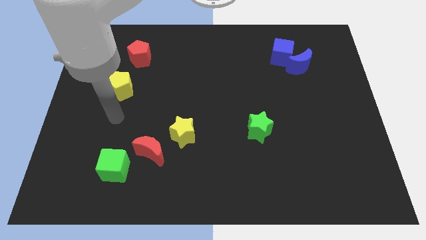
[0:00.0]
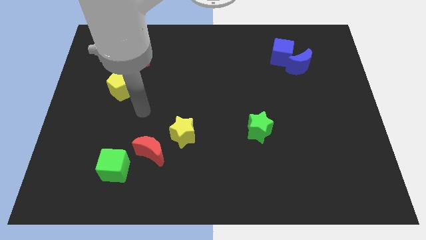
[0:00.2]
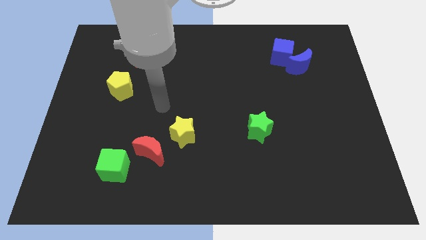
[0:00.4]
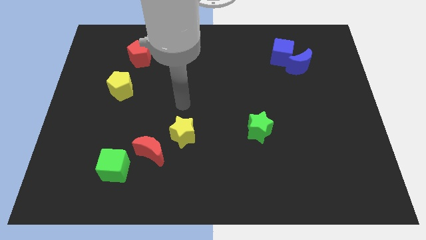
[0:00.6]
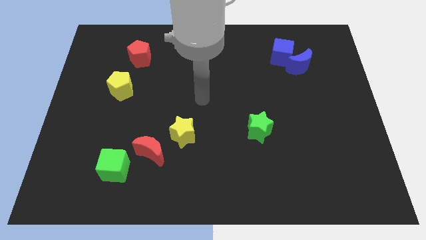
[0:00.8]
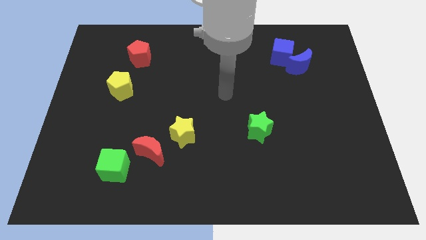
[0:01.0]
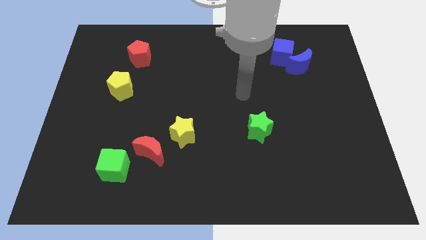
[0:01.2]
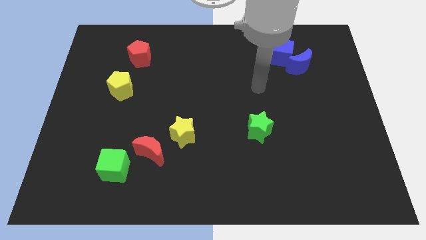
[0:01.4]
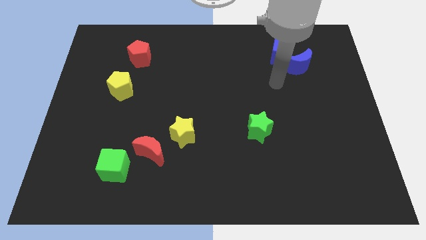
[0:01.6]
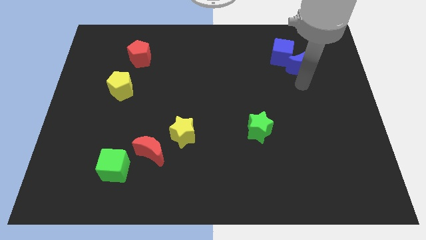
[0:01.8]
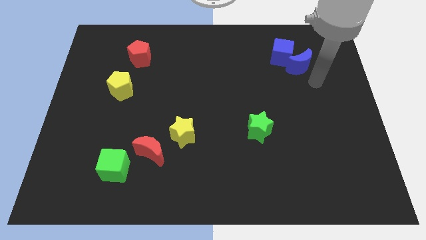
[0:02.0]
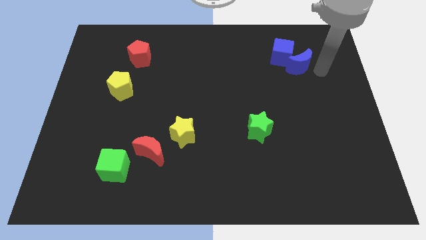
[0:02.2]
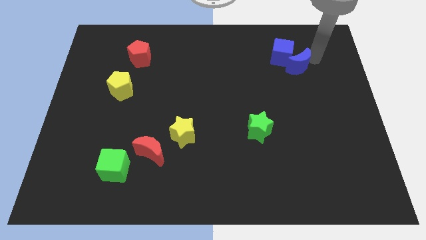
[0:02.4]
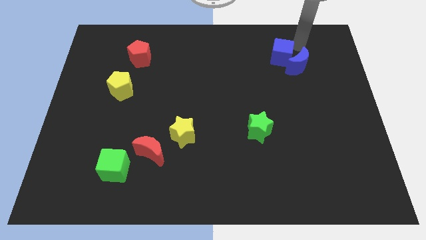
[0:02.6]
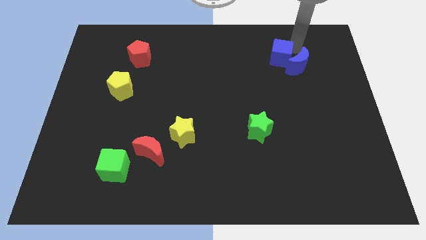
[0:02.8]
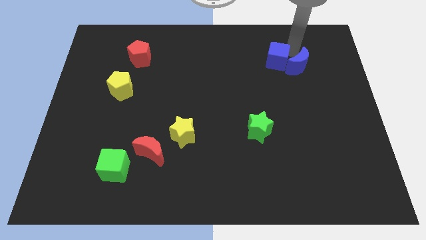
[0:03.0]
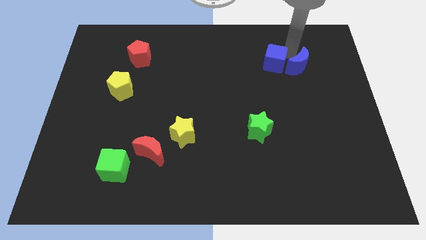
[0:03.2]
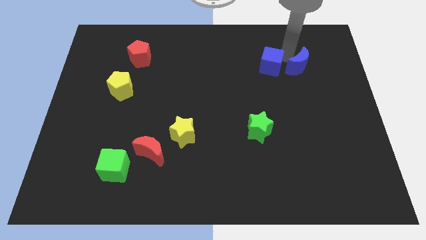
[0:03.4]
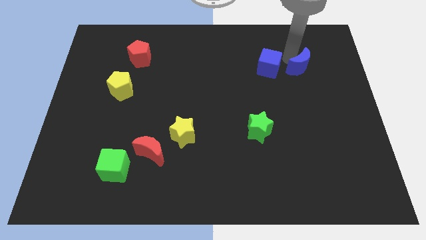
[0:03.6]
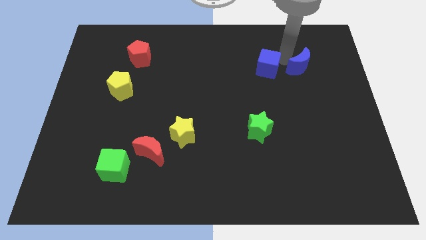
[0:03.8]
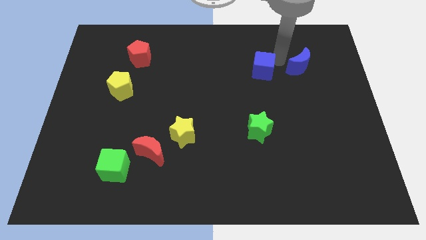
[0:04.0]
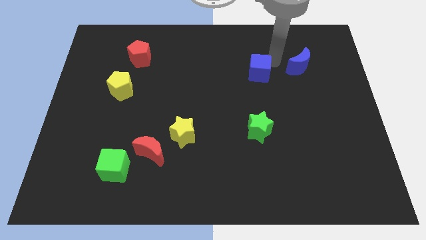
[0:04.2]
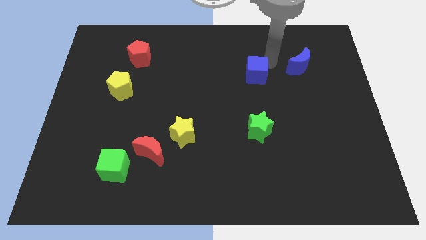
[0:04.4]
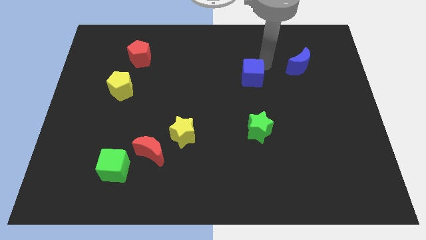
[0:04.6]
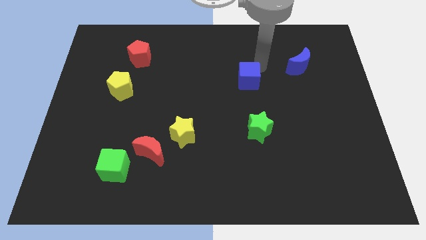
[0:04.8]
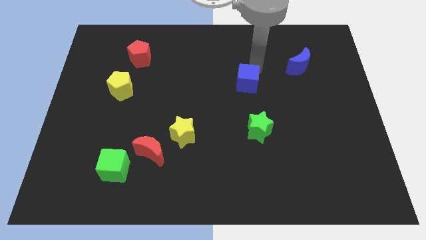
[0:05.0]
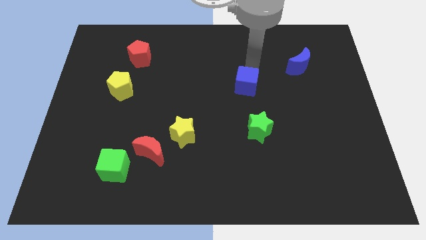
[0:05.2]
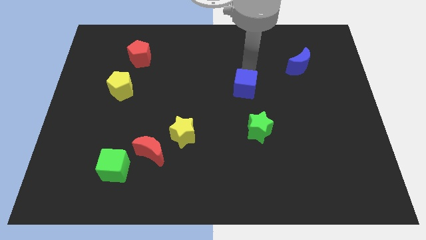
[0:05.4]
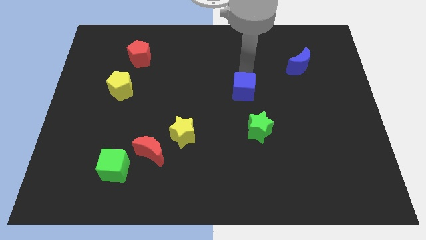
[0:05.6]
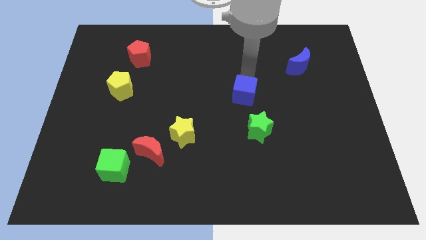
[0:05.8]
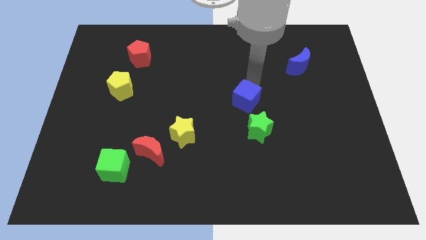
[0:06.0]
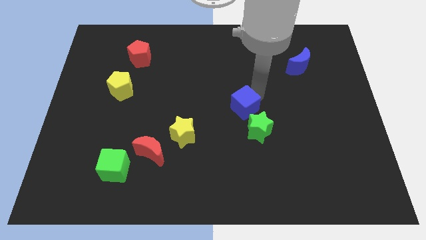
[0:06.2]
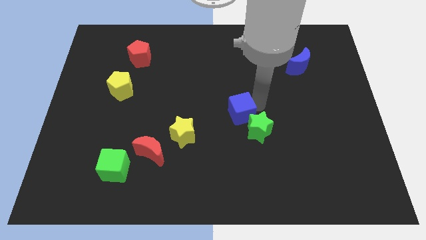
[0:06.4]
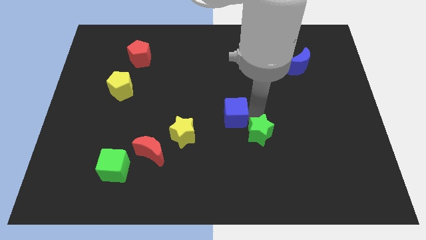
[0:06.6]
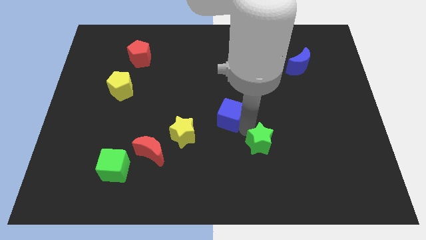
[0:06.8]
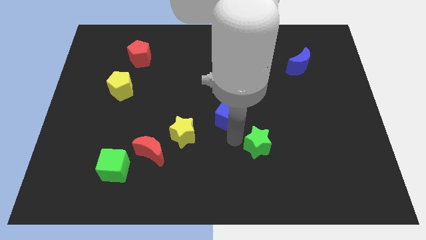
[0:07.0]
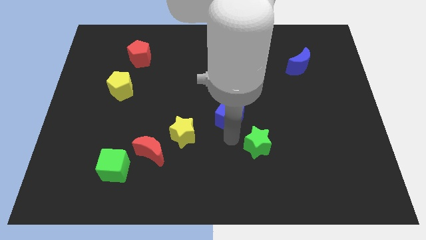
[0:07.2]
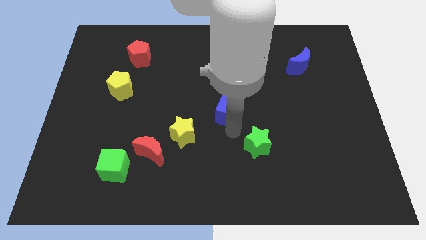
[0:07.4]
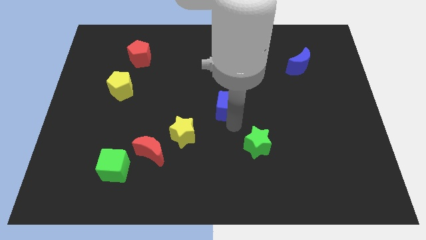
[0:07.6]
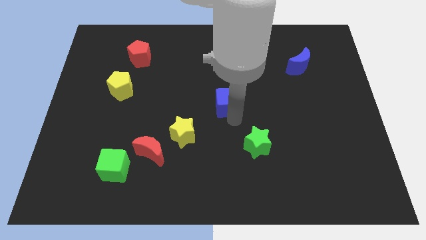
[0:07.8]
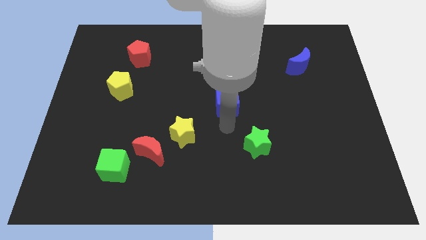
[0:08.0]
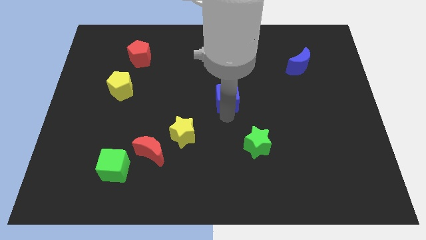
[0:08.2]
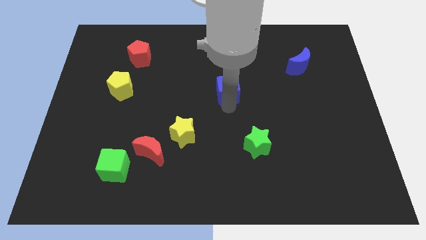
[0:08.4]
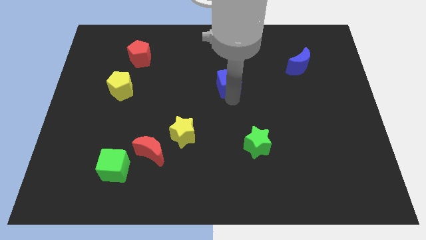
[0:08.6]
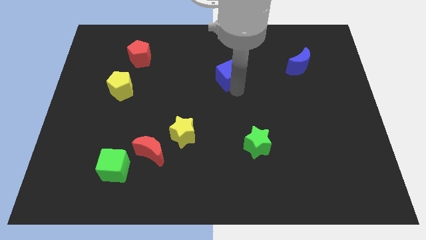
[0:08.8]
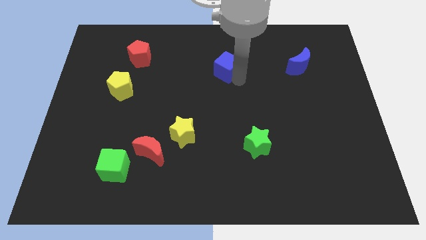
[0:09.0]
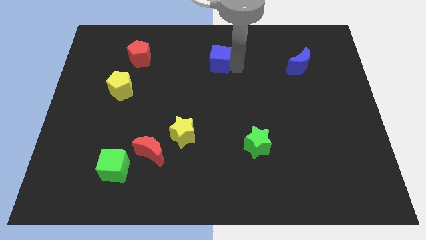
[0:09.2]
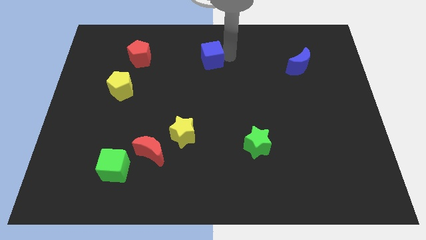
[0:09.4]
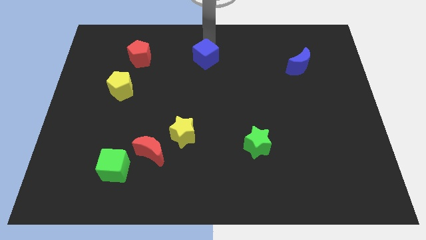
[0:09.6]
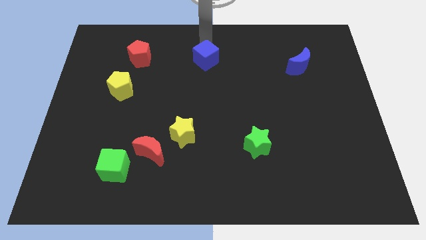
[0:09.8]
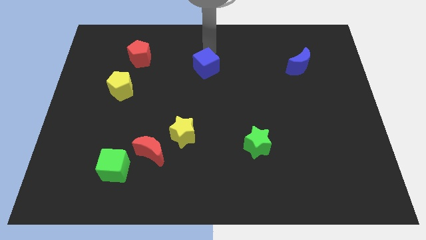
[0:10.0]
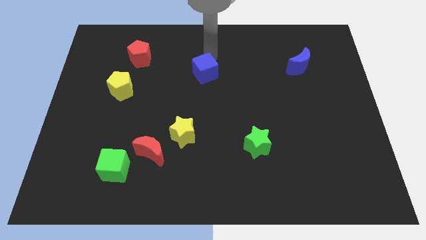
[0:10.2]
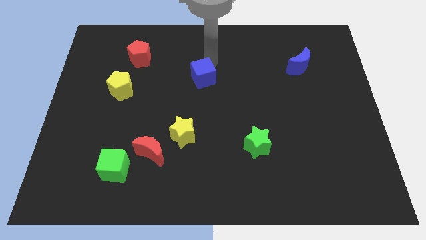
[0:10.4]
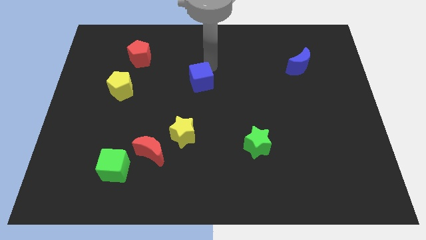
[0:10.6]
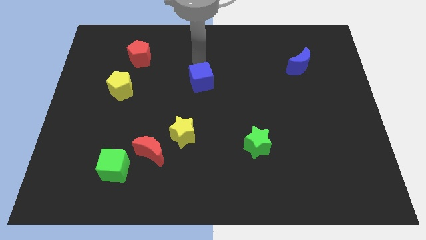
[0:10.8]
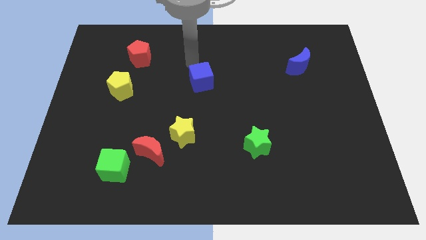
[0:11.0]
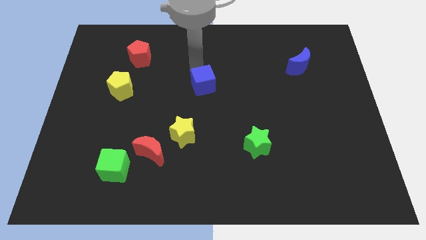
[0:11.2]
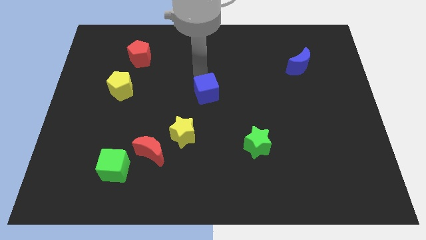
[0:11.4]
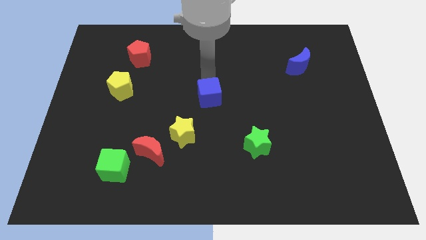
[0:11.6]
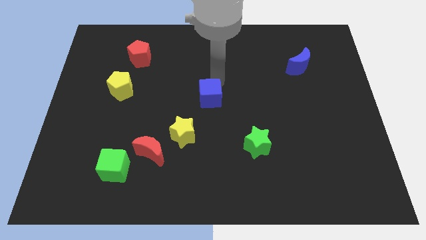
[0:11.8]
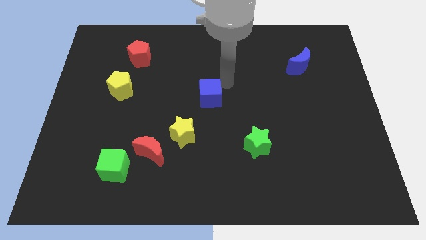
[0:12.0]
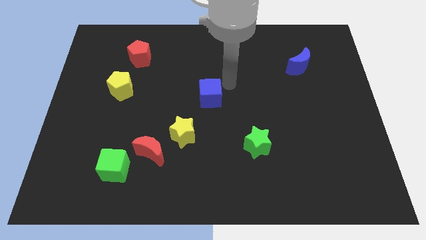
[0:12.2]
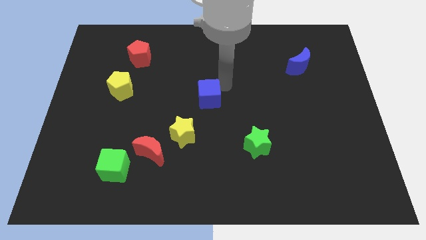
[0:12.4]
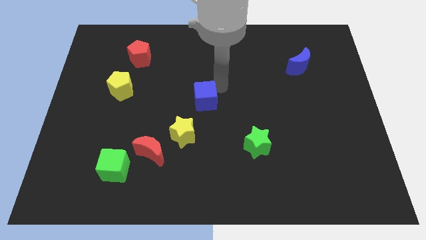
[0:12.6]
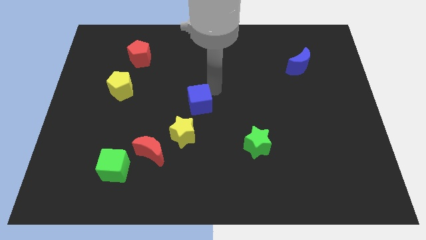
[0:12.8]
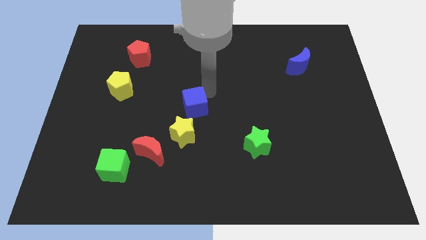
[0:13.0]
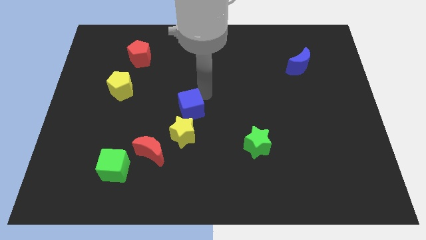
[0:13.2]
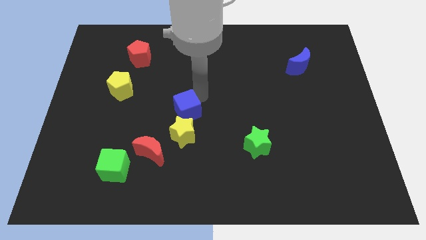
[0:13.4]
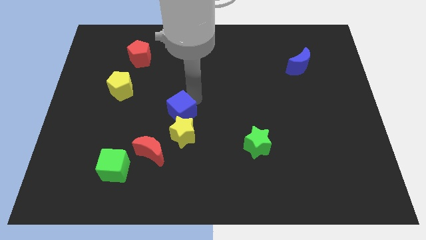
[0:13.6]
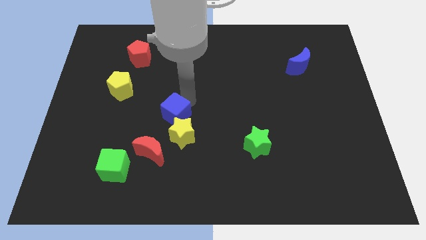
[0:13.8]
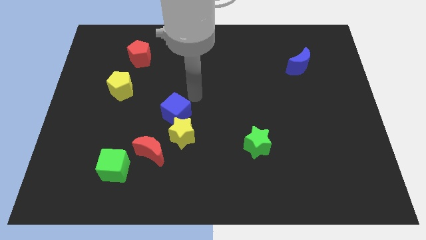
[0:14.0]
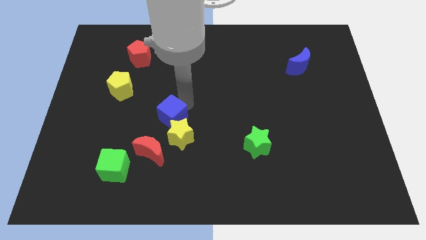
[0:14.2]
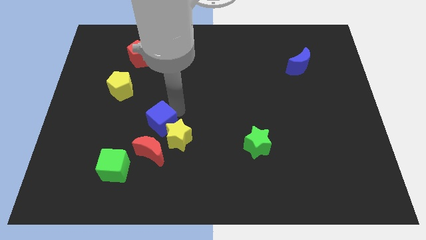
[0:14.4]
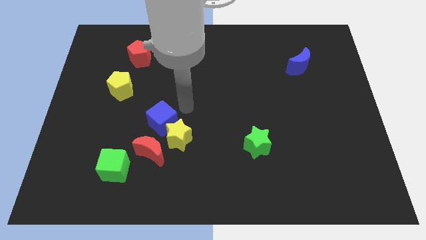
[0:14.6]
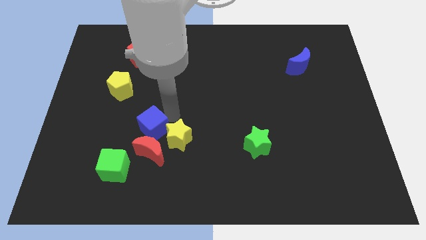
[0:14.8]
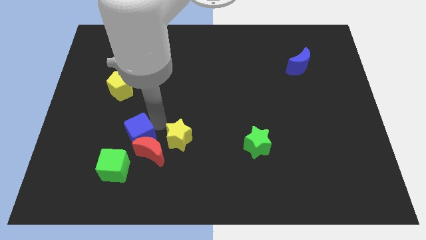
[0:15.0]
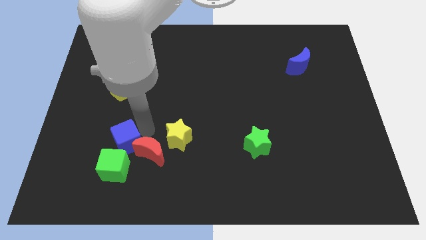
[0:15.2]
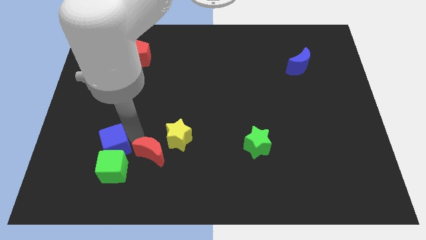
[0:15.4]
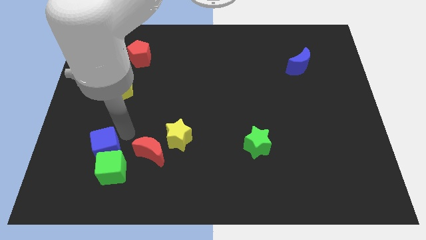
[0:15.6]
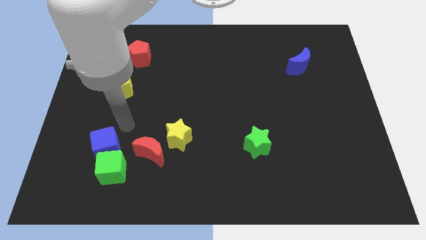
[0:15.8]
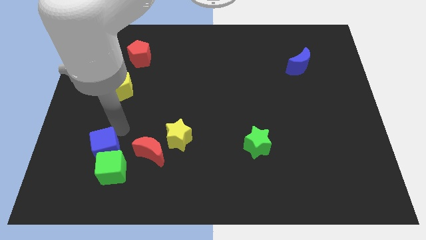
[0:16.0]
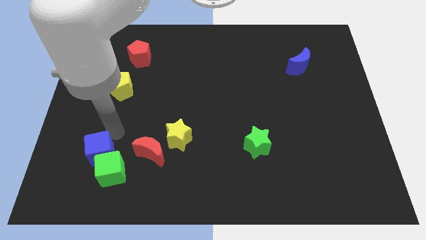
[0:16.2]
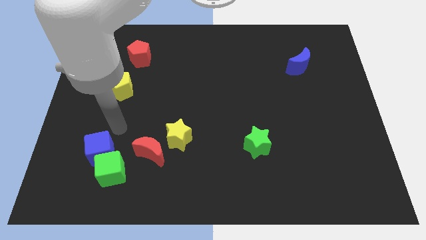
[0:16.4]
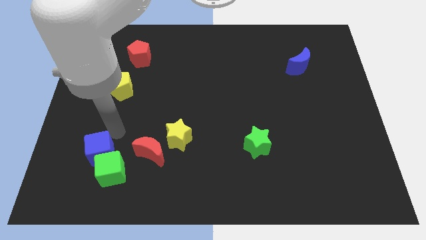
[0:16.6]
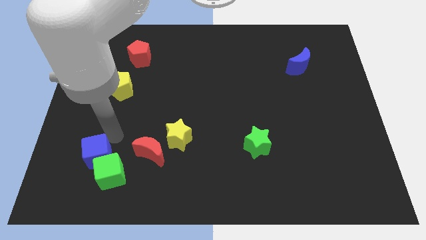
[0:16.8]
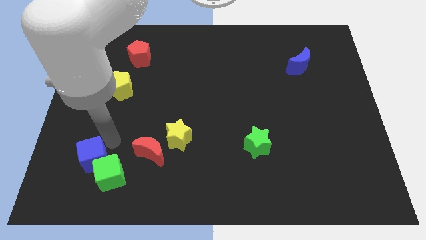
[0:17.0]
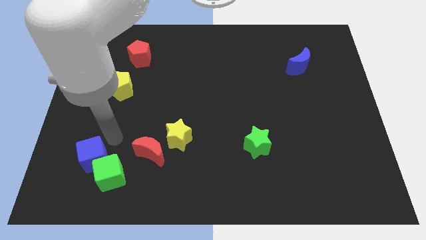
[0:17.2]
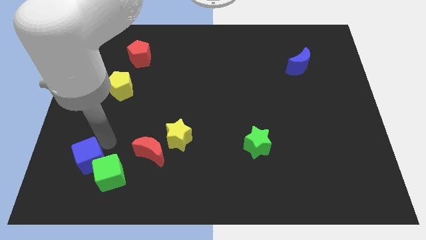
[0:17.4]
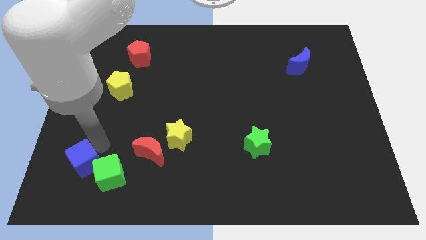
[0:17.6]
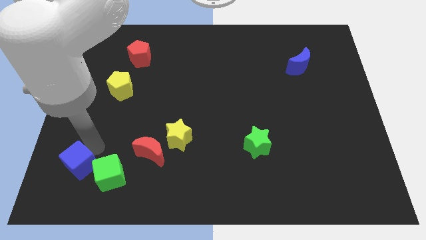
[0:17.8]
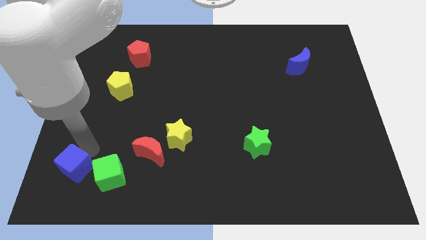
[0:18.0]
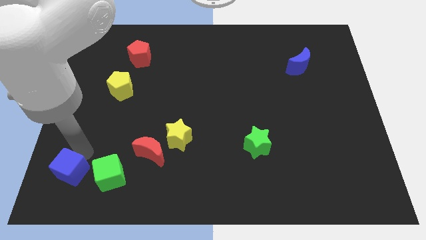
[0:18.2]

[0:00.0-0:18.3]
move the blue cube to the bottom left of the board
